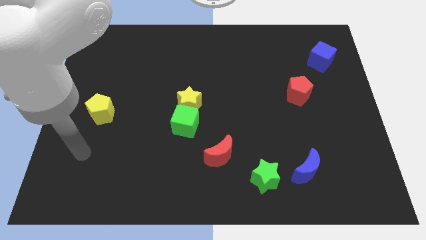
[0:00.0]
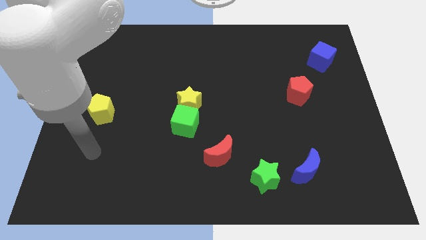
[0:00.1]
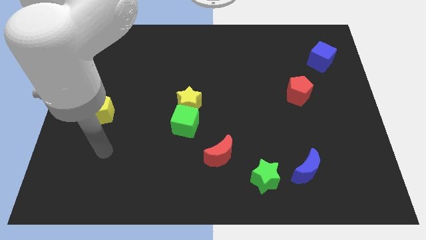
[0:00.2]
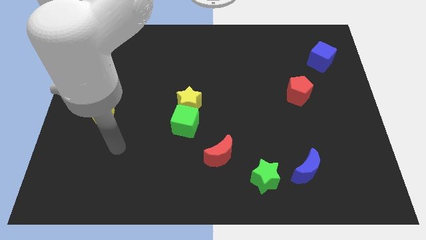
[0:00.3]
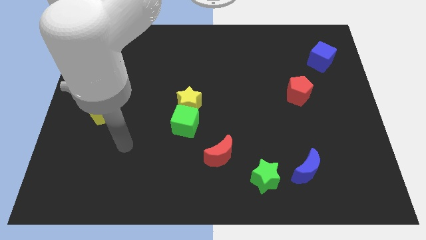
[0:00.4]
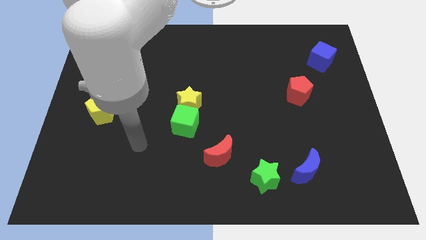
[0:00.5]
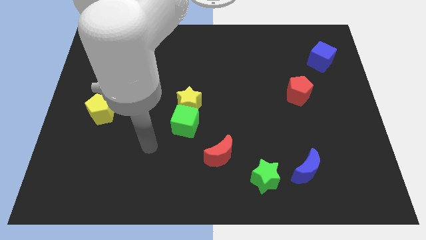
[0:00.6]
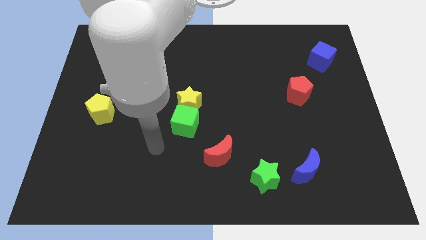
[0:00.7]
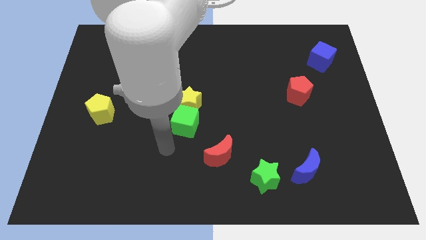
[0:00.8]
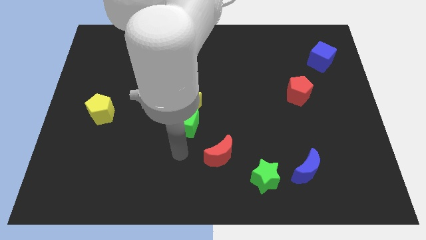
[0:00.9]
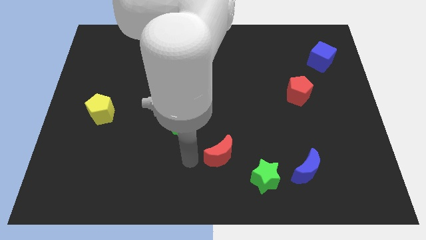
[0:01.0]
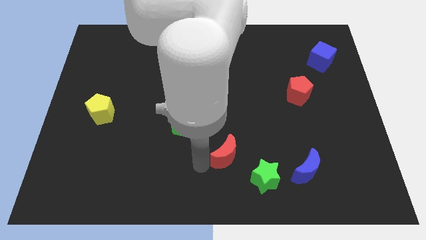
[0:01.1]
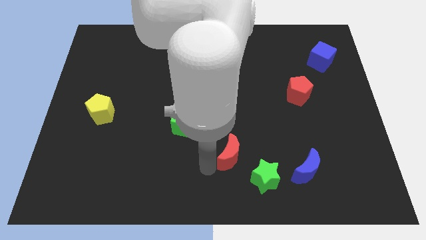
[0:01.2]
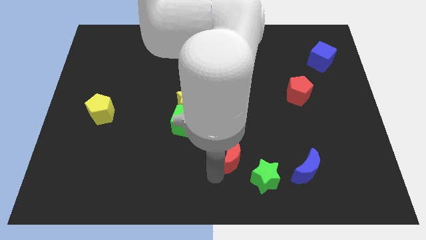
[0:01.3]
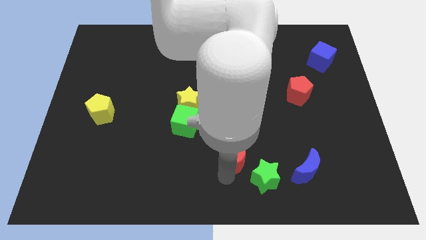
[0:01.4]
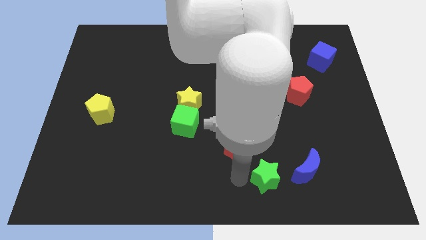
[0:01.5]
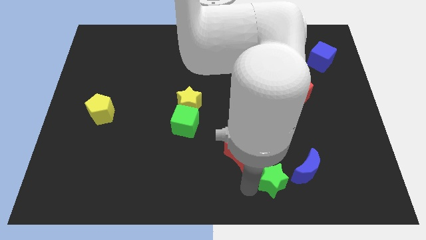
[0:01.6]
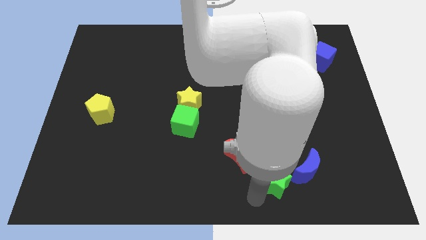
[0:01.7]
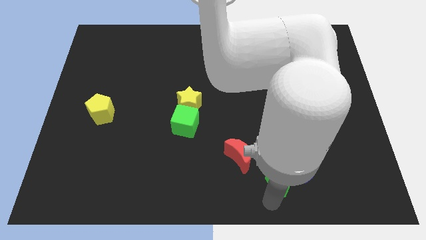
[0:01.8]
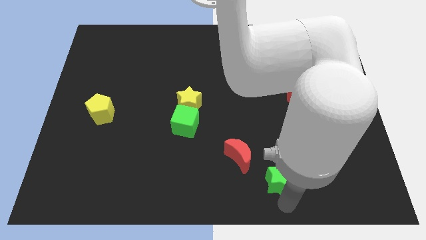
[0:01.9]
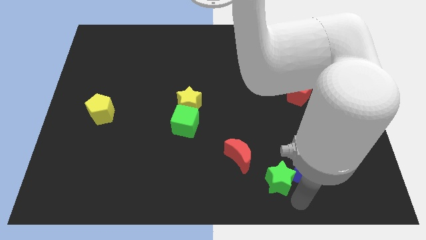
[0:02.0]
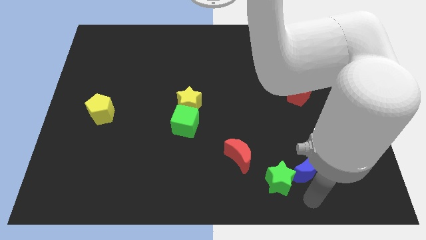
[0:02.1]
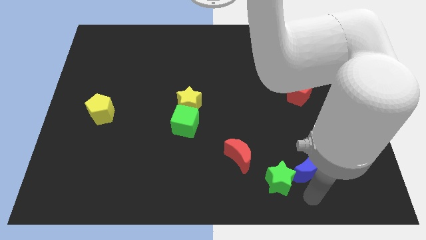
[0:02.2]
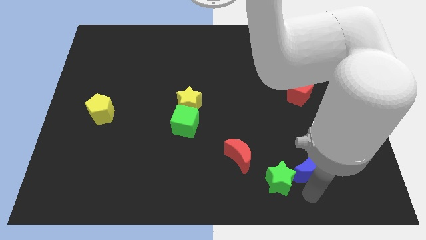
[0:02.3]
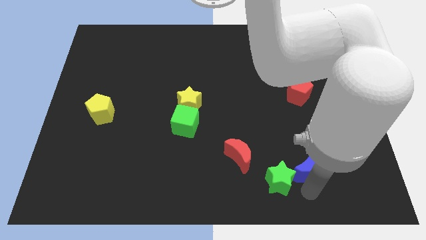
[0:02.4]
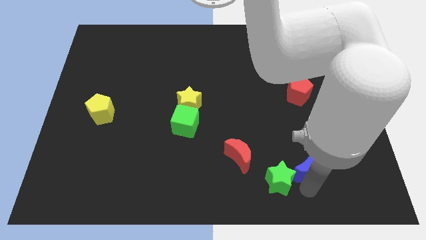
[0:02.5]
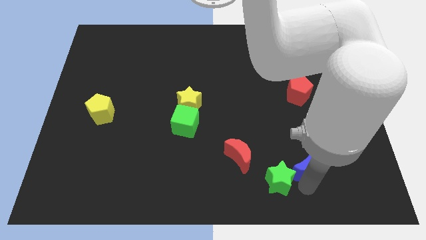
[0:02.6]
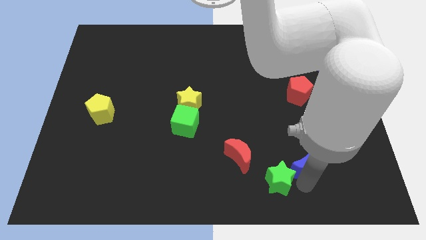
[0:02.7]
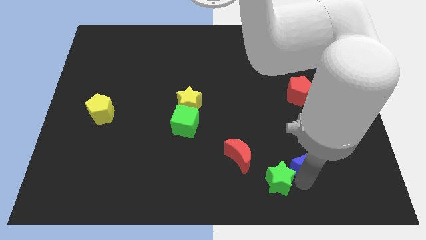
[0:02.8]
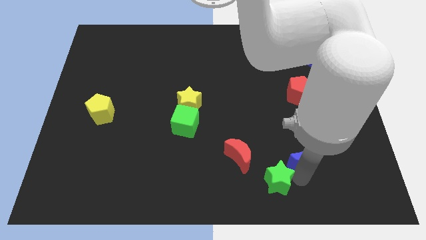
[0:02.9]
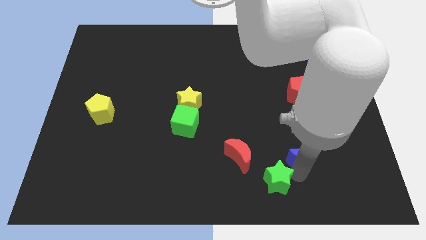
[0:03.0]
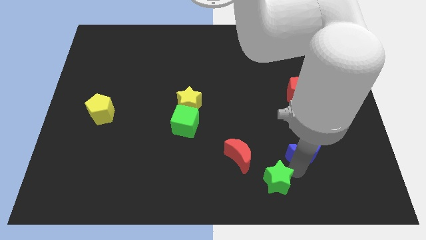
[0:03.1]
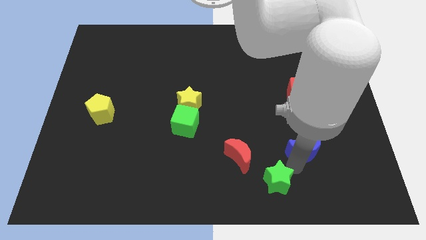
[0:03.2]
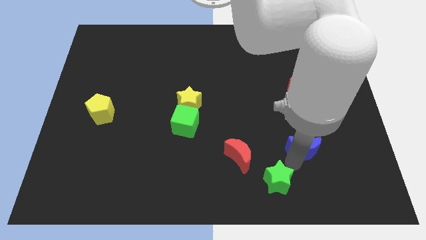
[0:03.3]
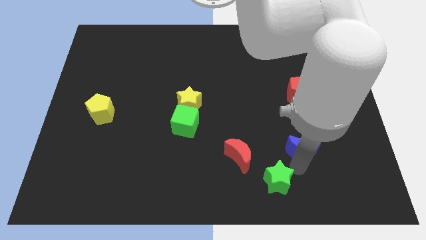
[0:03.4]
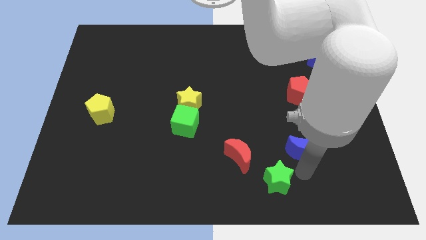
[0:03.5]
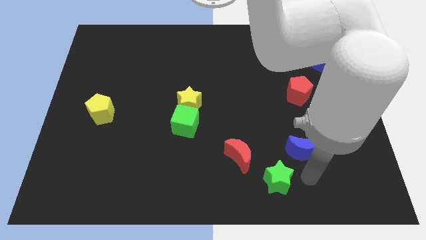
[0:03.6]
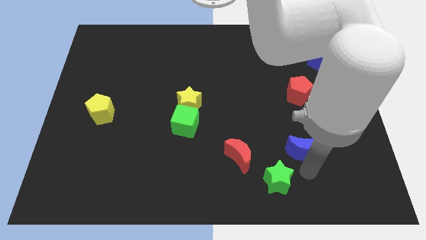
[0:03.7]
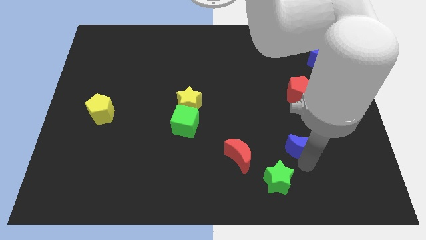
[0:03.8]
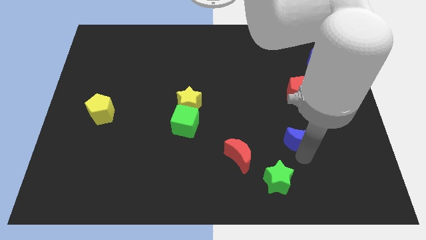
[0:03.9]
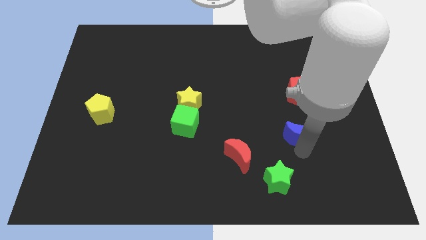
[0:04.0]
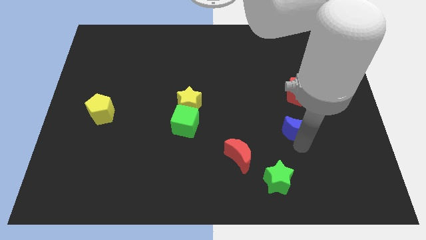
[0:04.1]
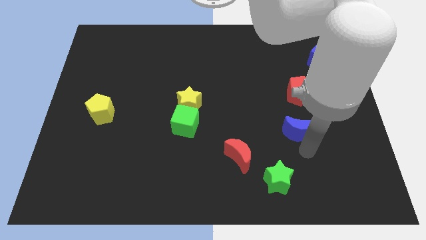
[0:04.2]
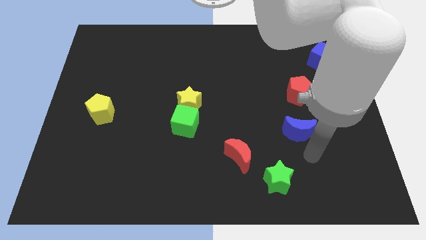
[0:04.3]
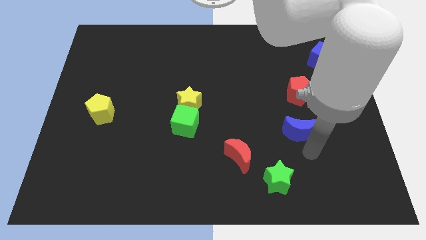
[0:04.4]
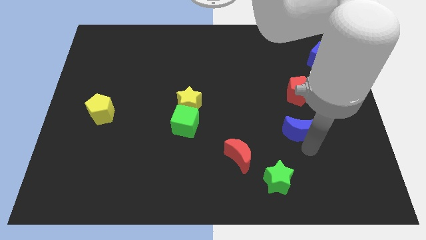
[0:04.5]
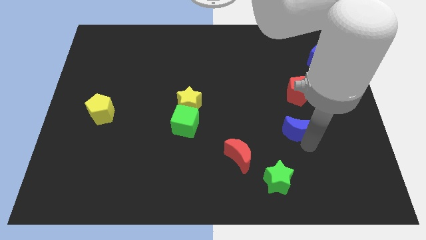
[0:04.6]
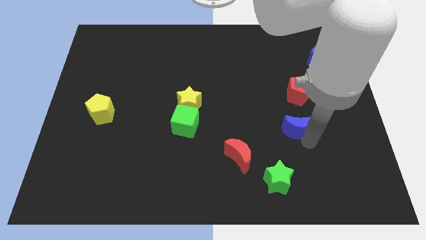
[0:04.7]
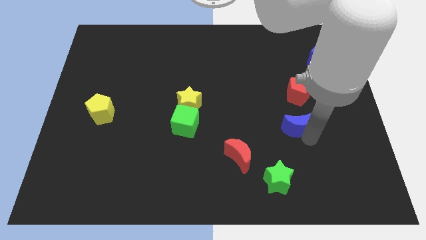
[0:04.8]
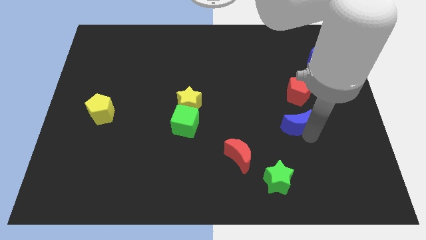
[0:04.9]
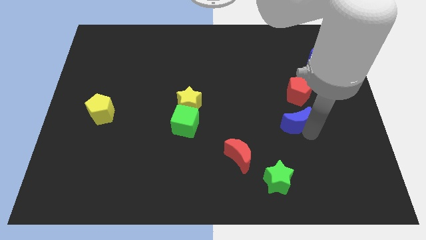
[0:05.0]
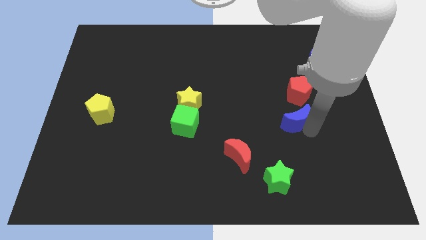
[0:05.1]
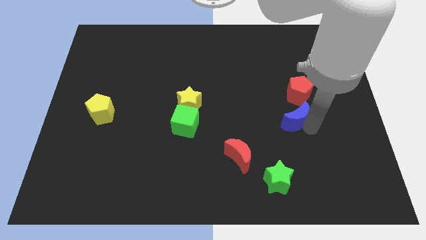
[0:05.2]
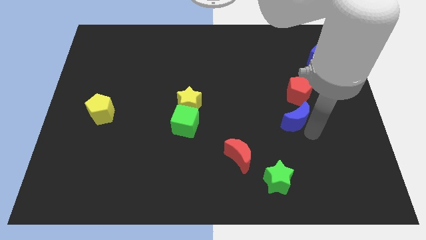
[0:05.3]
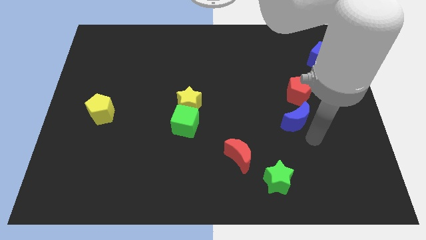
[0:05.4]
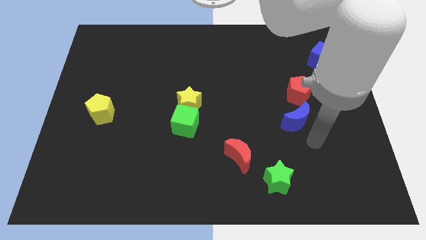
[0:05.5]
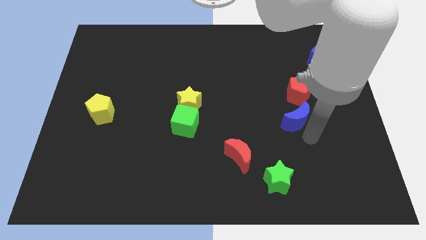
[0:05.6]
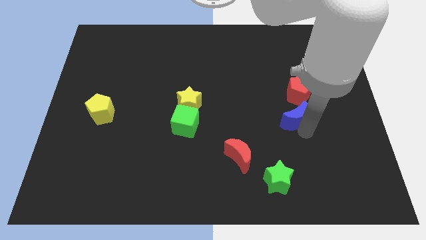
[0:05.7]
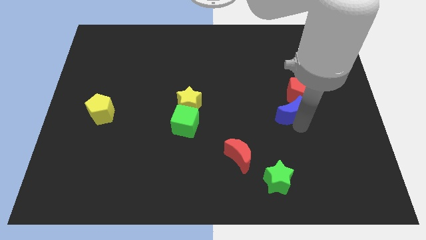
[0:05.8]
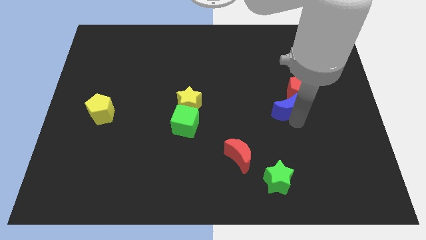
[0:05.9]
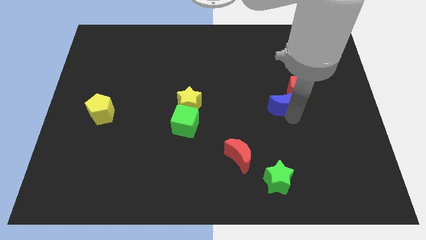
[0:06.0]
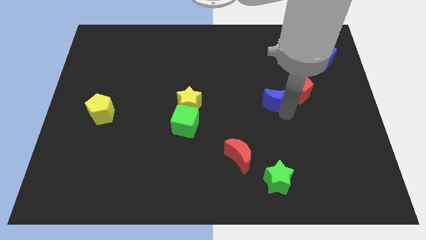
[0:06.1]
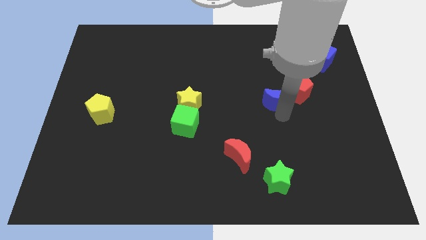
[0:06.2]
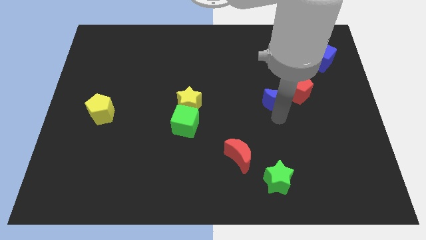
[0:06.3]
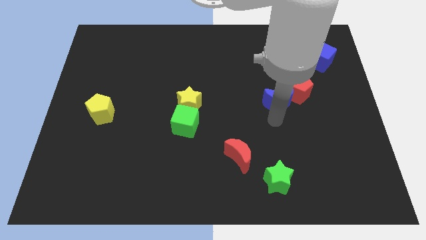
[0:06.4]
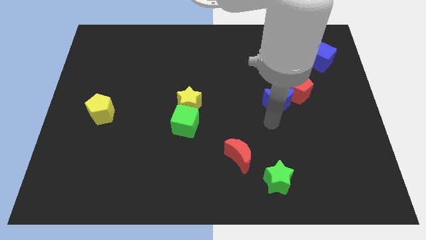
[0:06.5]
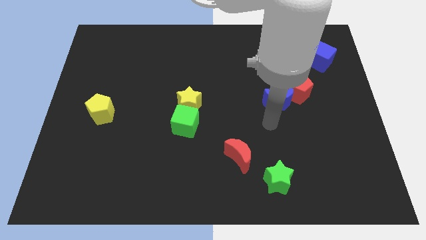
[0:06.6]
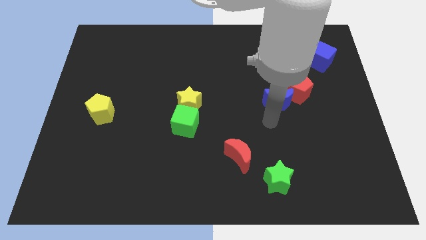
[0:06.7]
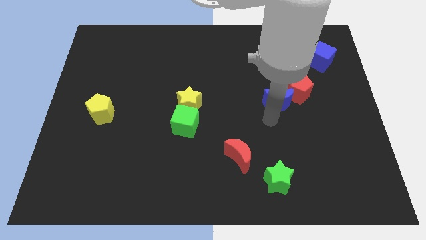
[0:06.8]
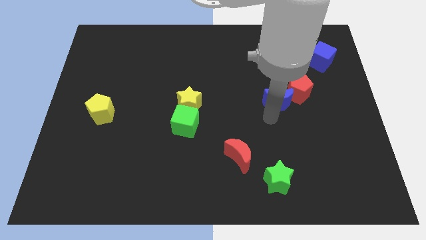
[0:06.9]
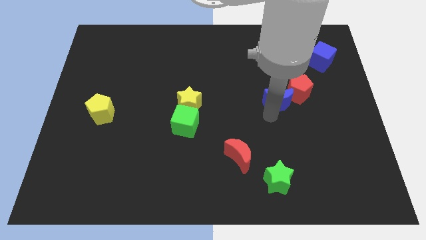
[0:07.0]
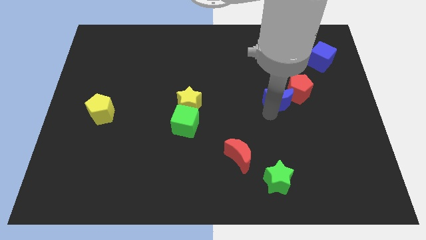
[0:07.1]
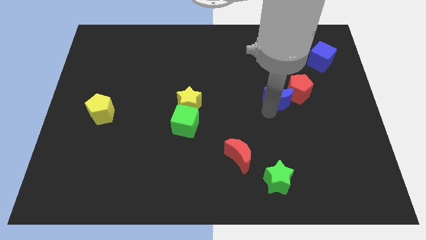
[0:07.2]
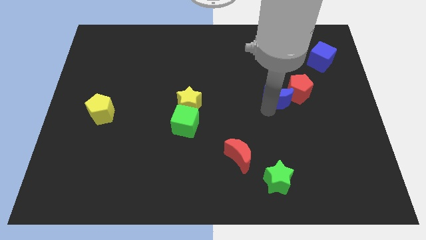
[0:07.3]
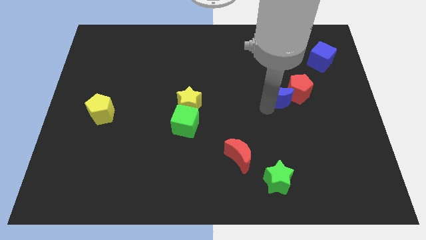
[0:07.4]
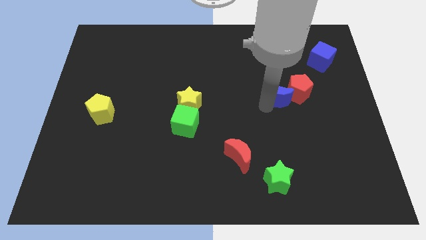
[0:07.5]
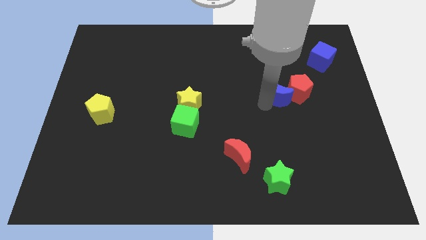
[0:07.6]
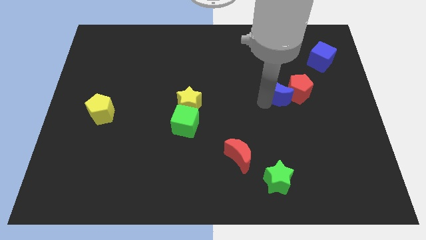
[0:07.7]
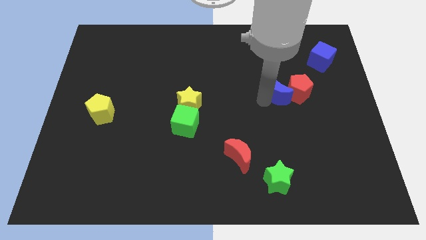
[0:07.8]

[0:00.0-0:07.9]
slide the blue moon up
